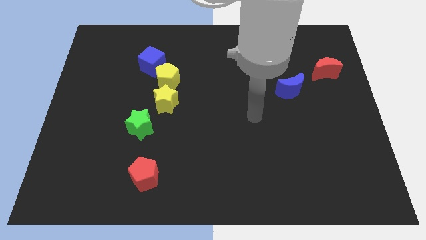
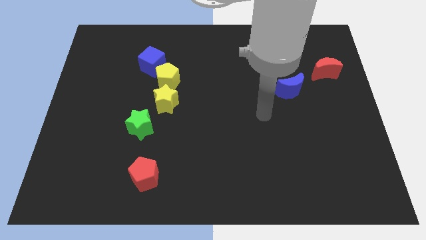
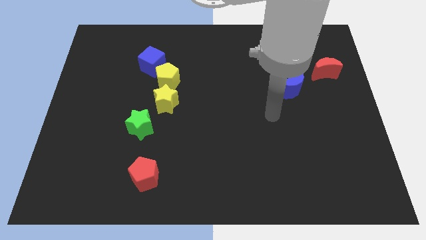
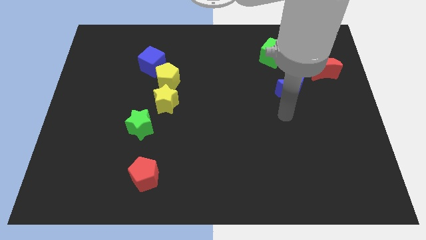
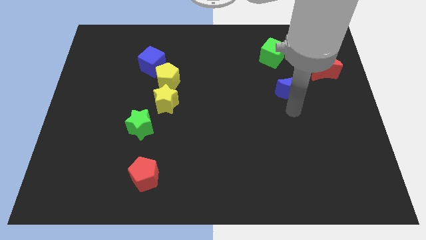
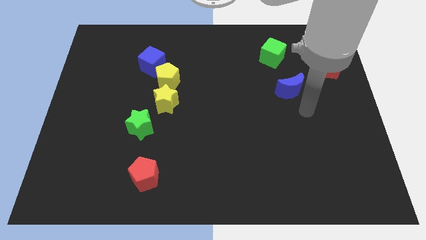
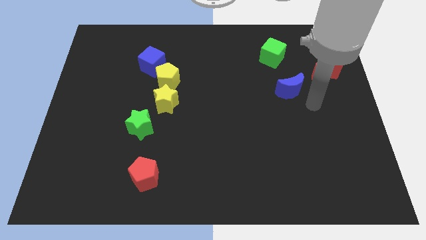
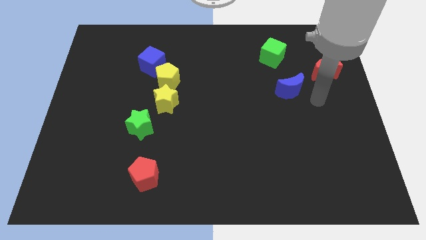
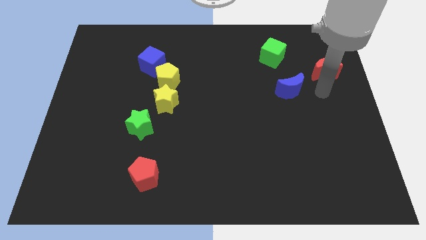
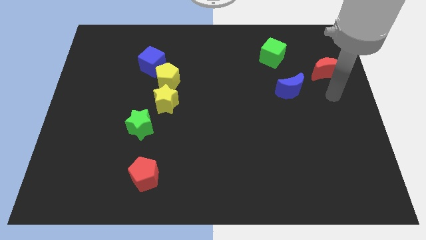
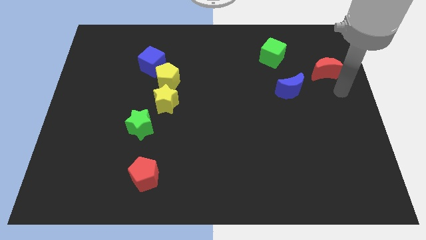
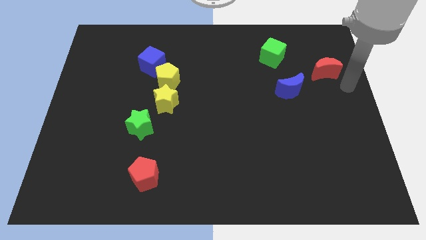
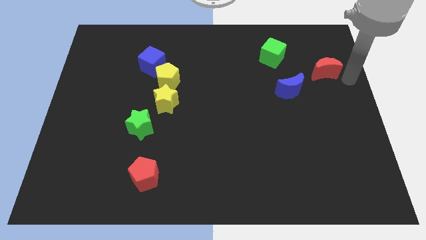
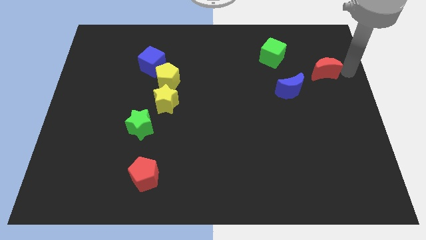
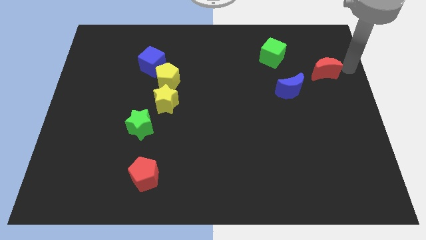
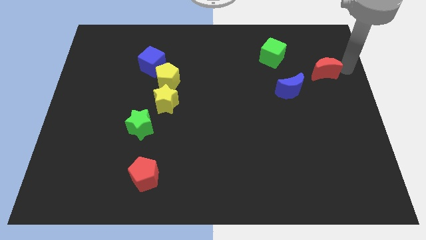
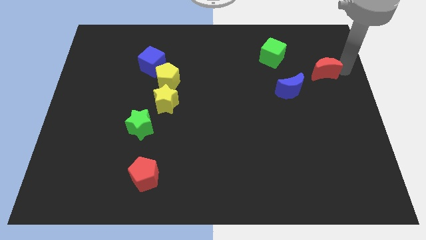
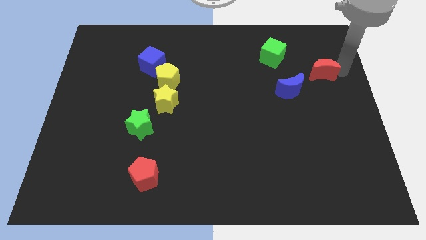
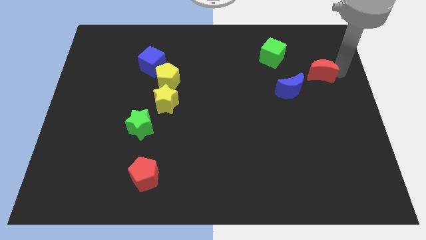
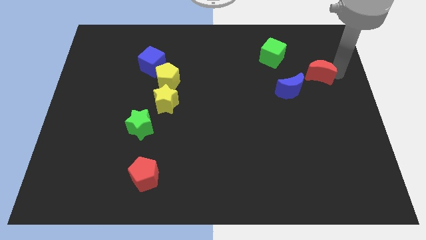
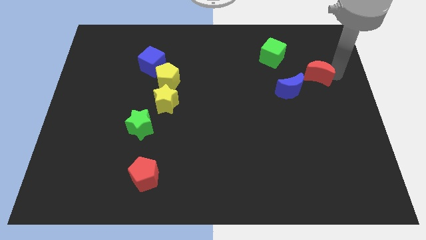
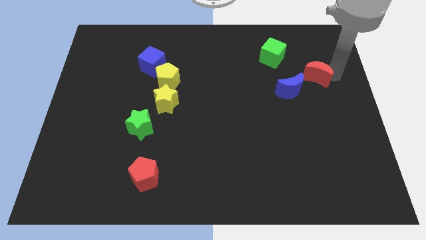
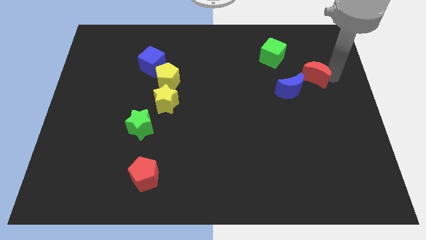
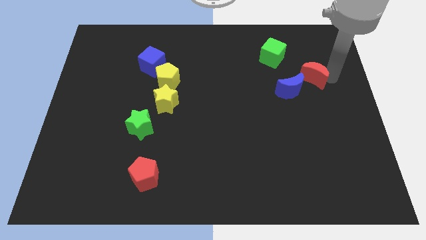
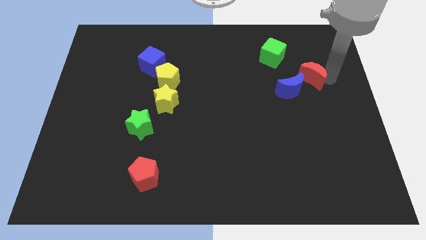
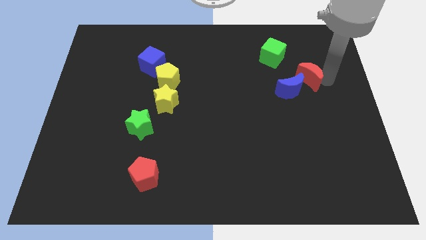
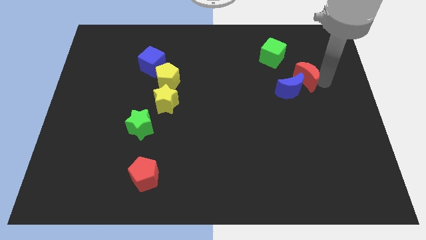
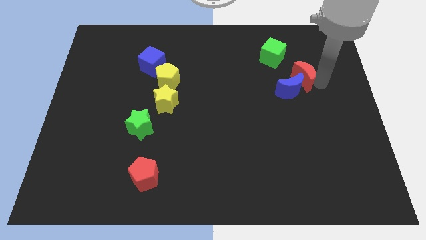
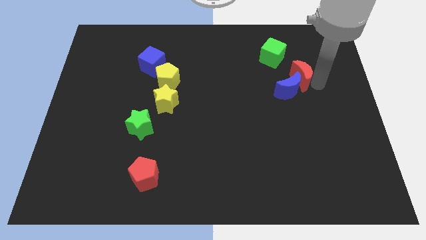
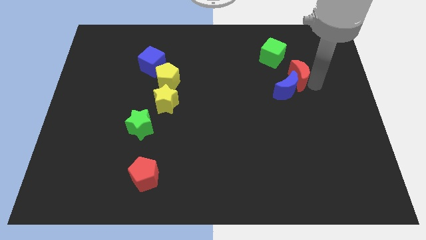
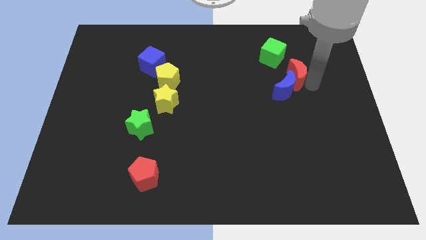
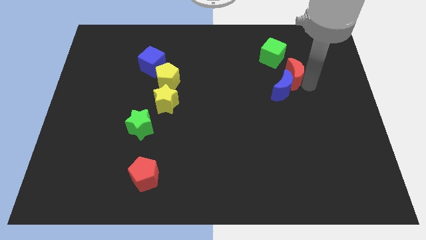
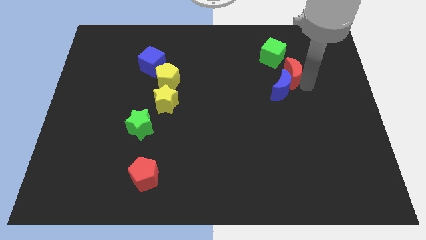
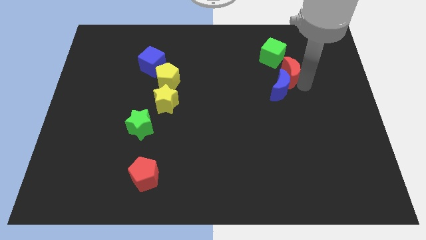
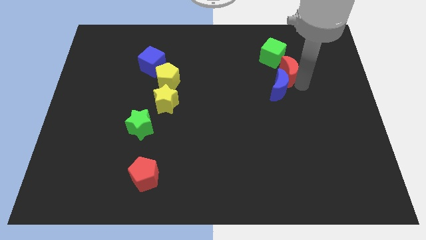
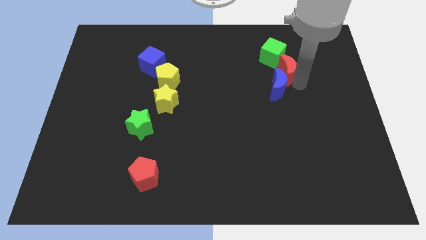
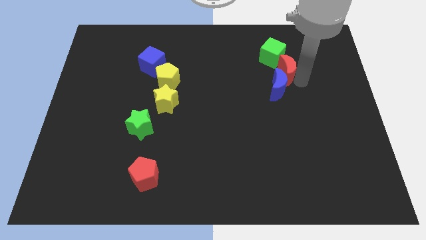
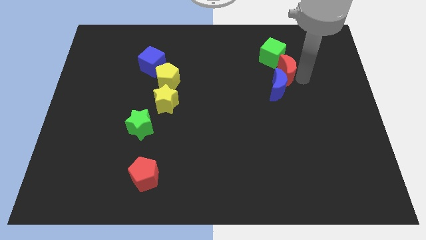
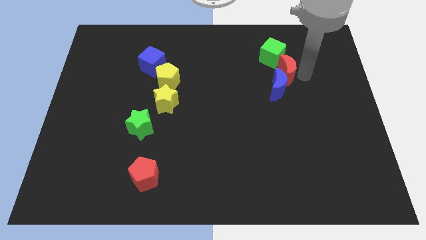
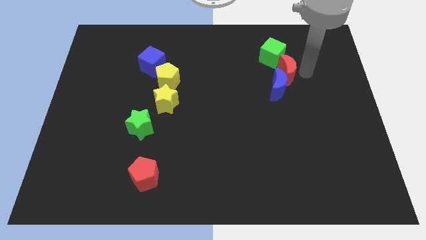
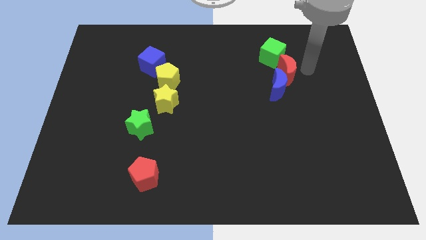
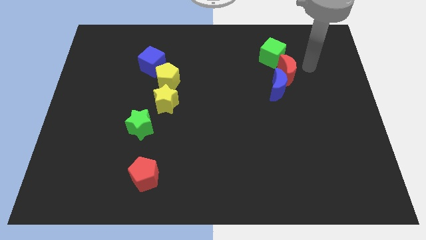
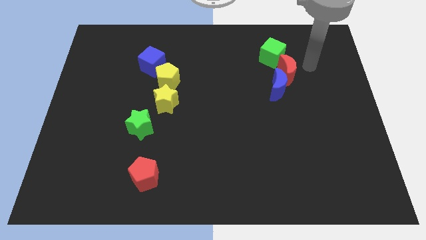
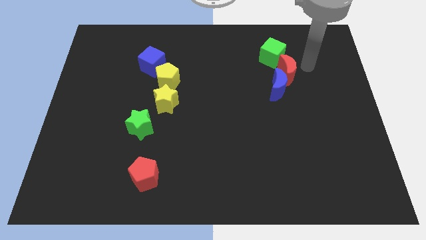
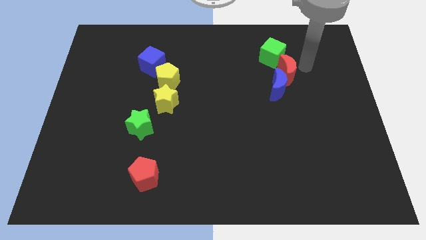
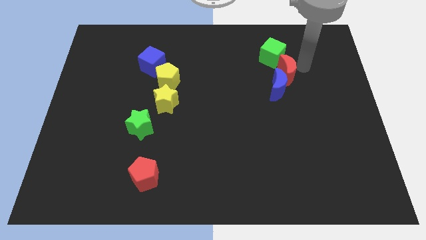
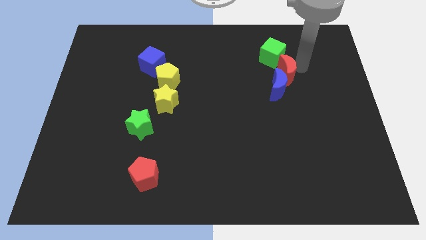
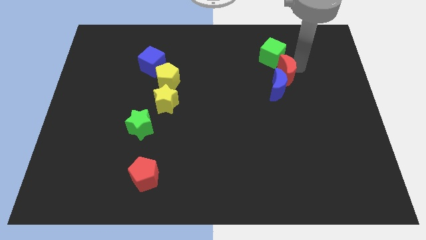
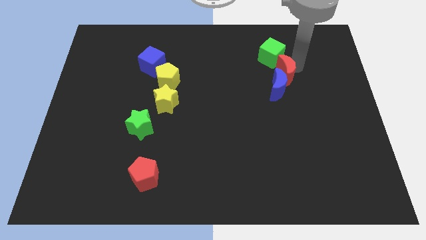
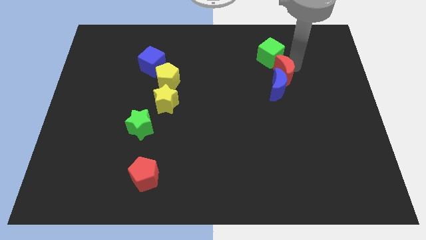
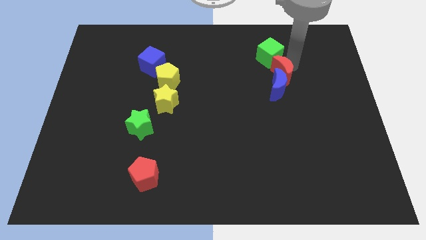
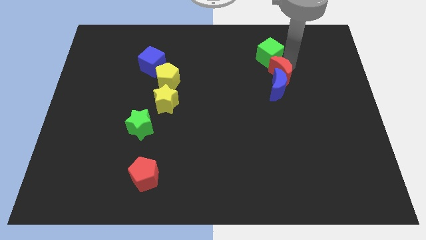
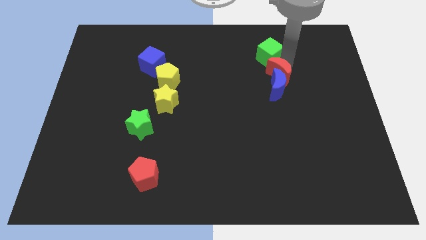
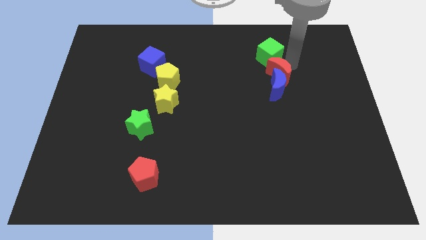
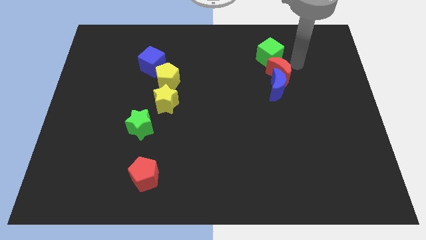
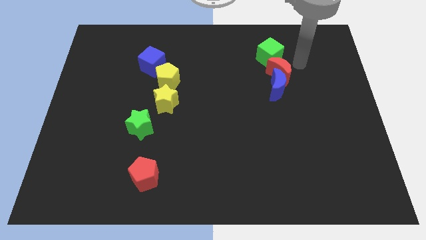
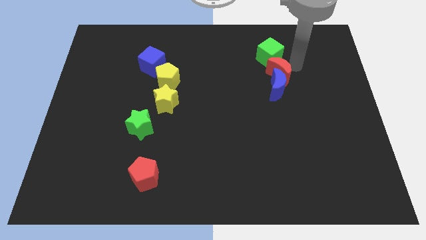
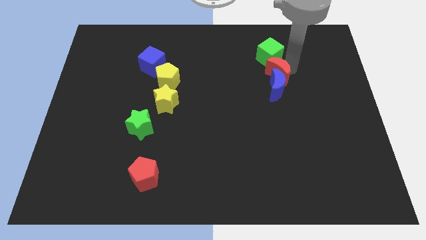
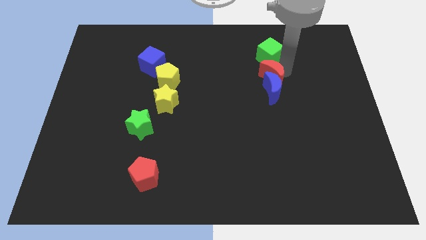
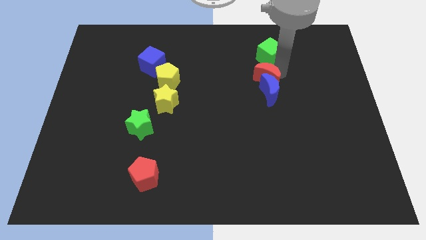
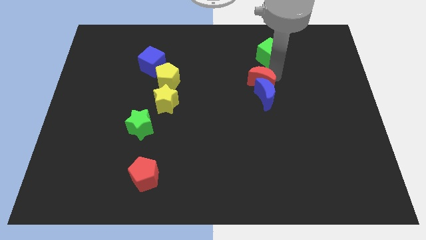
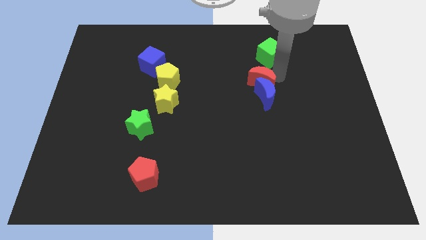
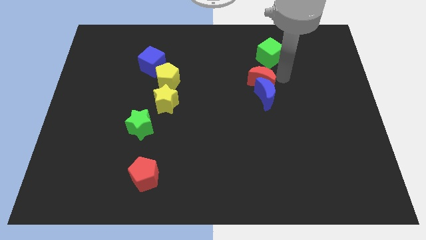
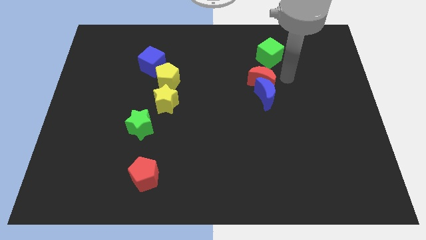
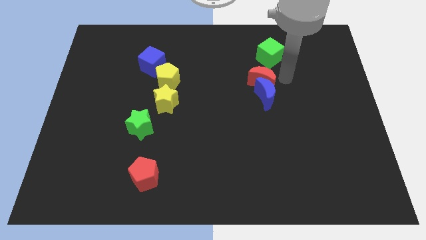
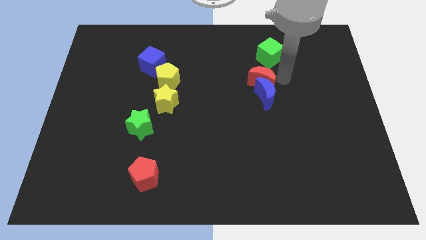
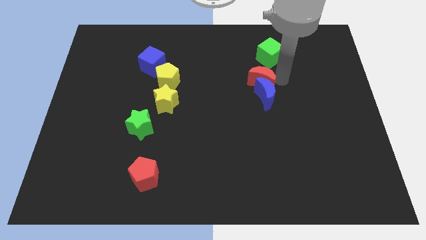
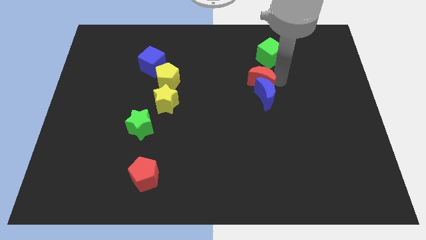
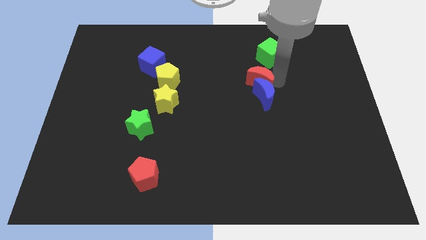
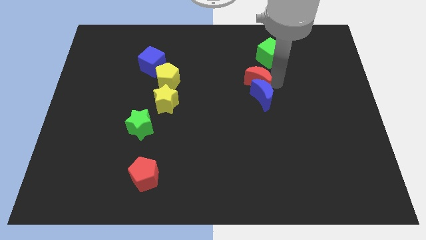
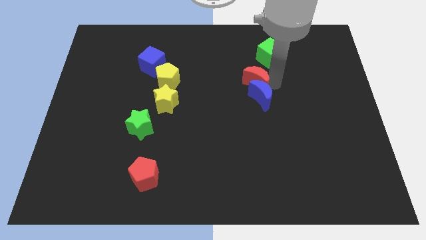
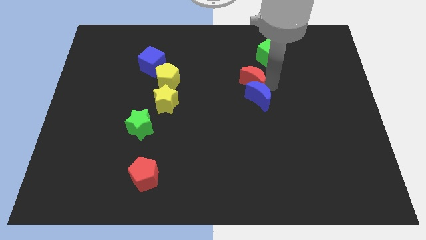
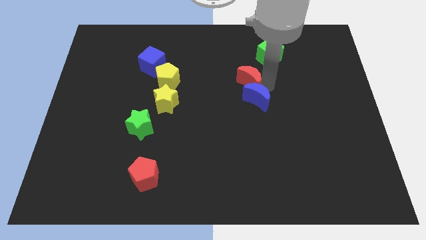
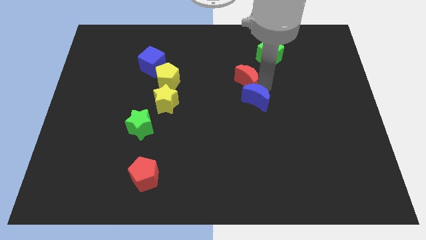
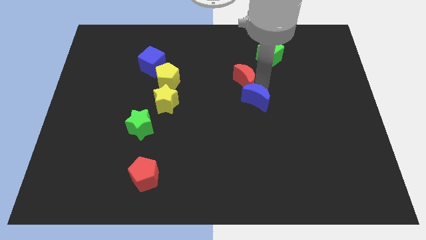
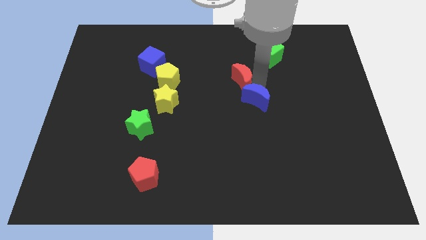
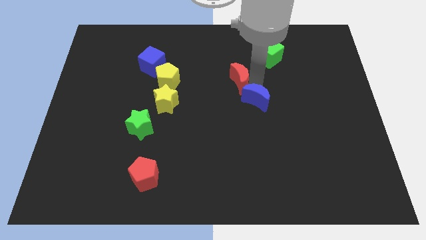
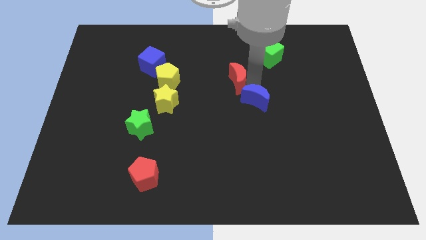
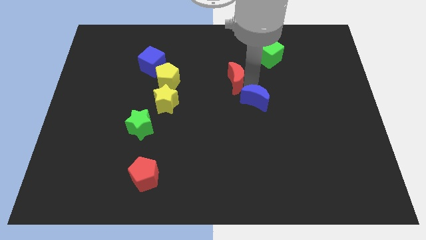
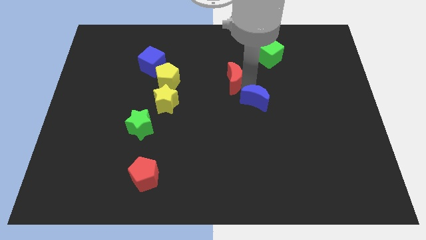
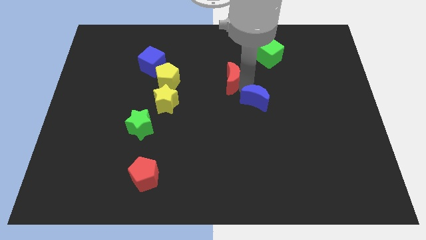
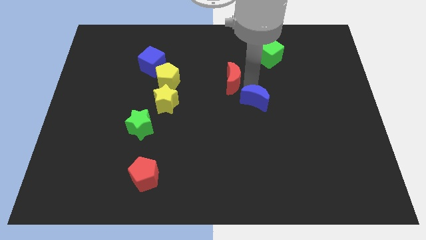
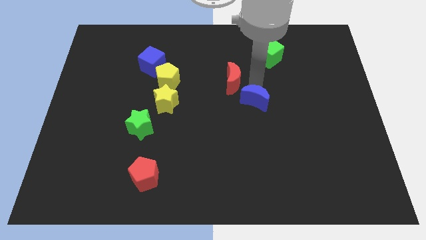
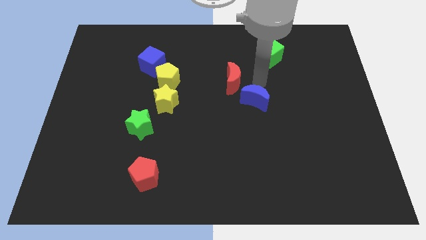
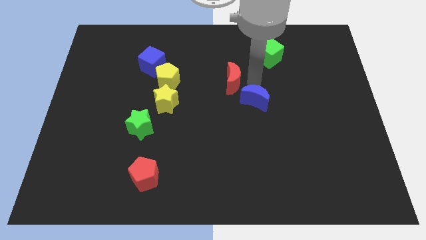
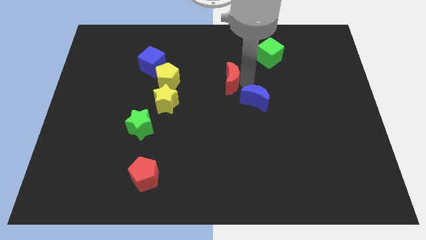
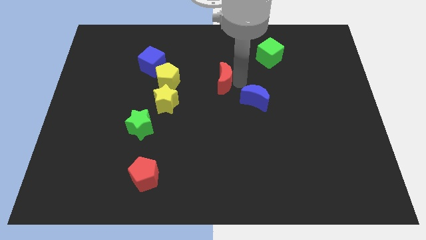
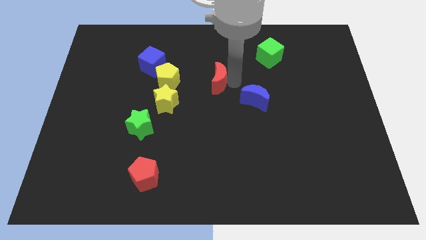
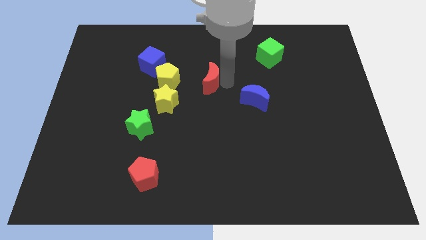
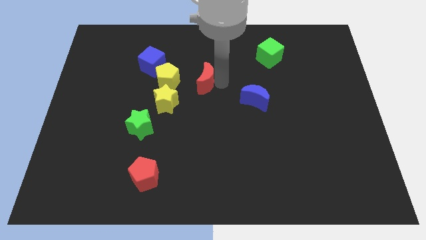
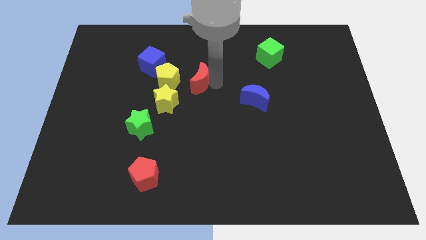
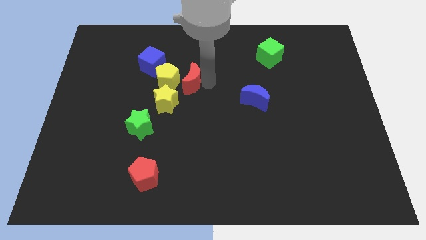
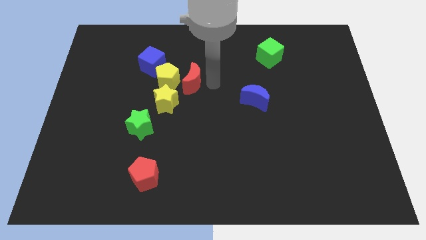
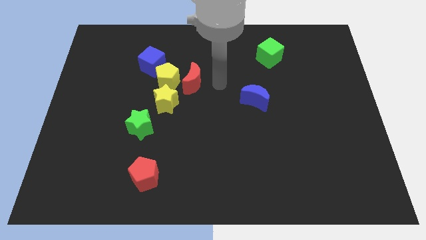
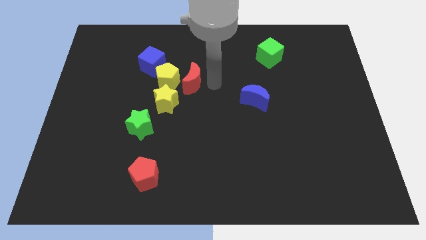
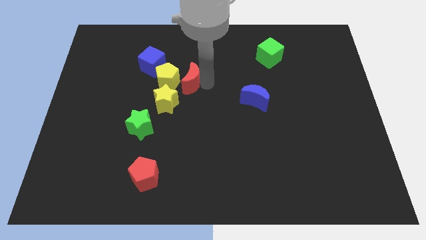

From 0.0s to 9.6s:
slide the red moon towards the yellow pentagon
